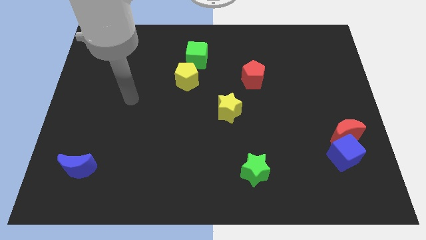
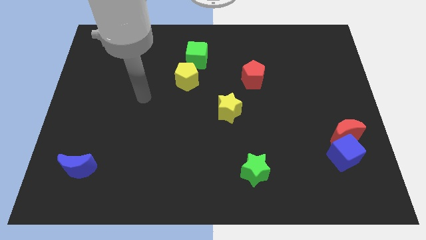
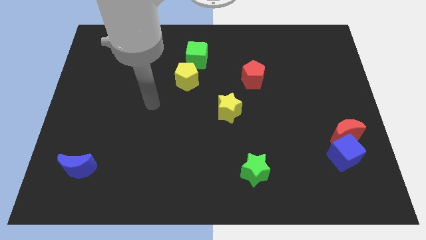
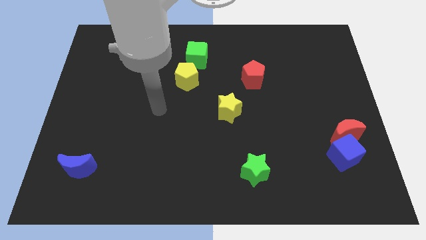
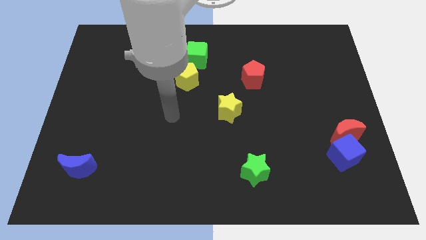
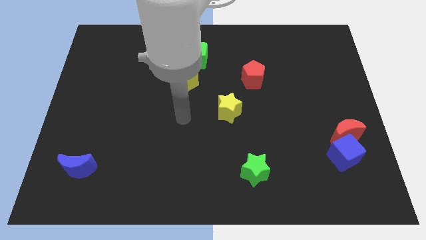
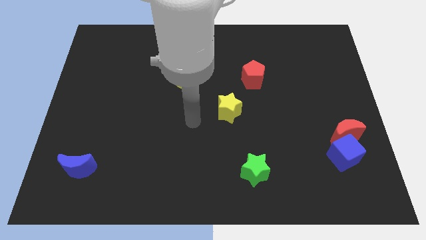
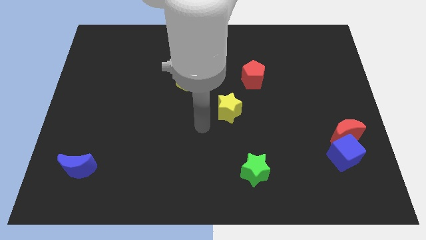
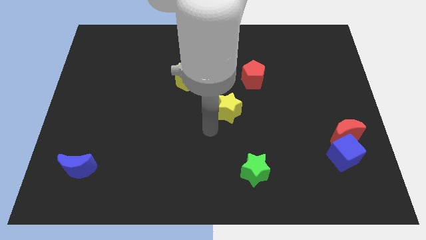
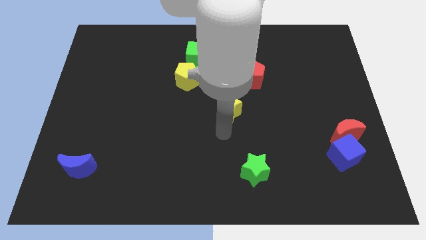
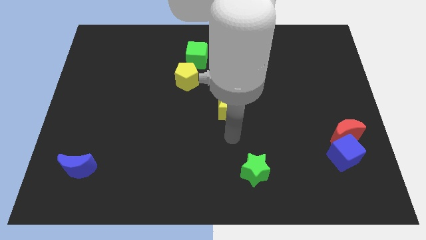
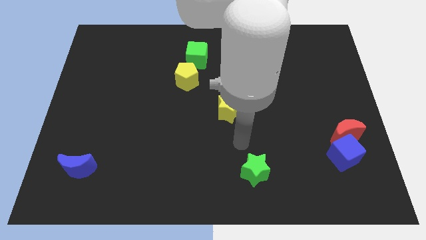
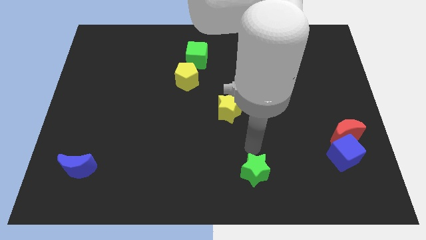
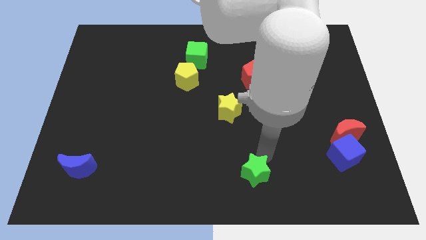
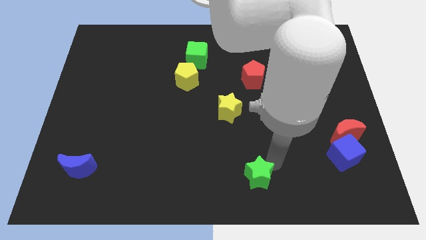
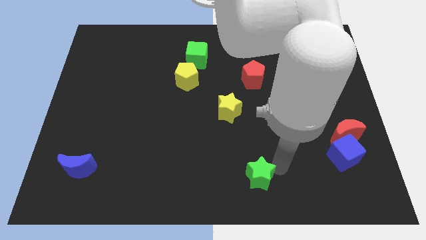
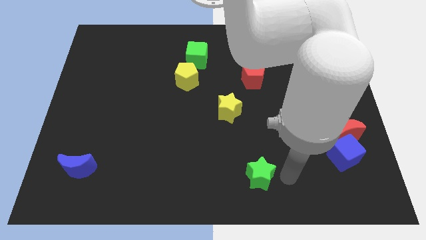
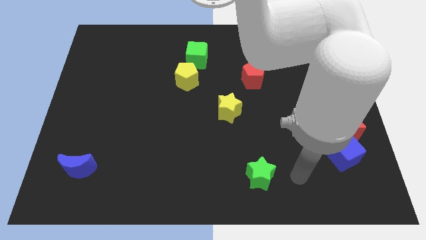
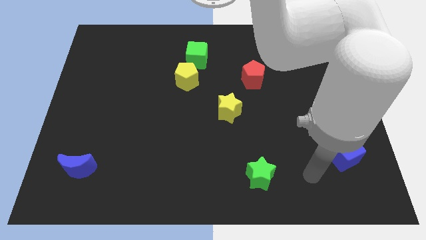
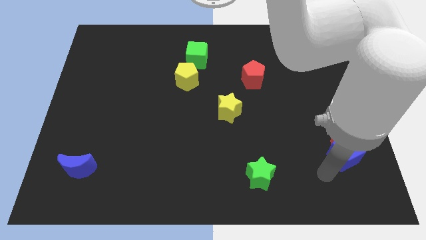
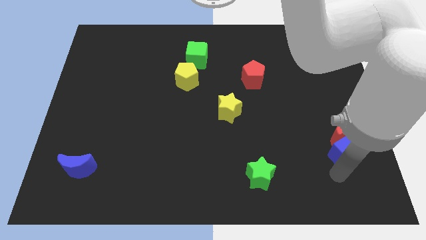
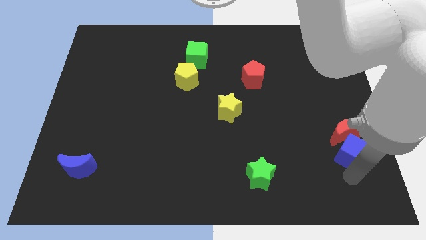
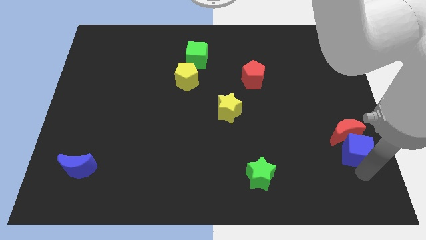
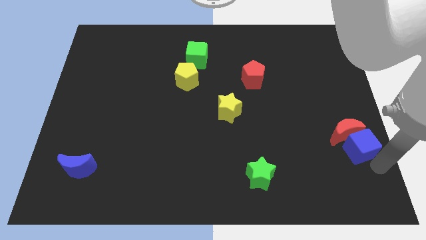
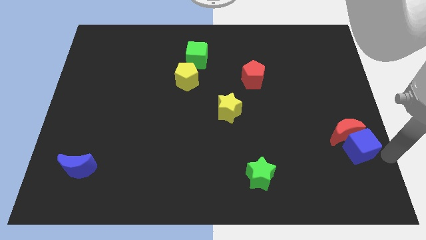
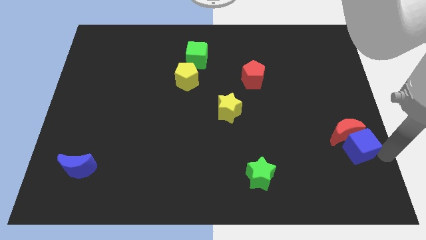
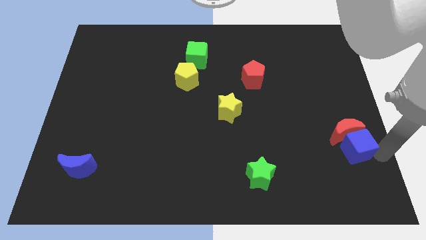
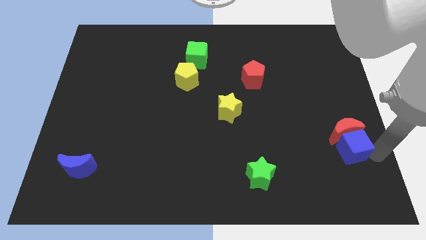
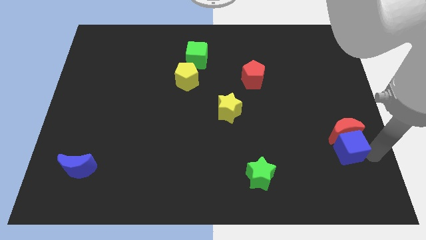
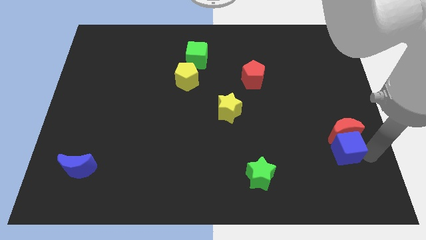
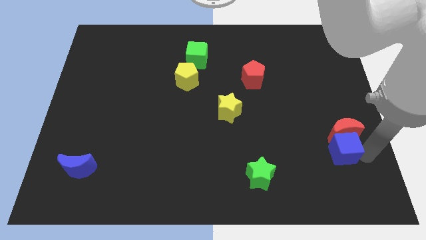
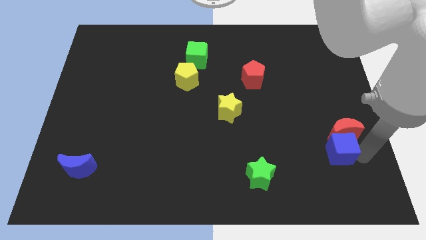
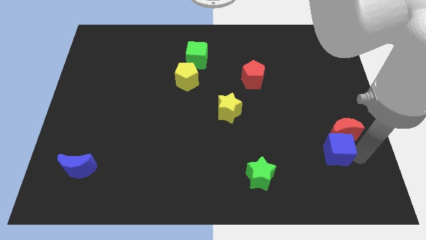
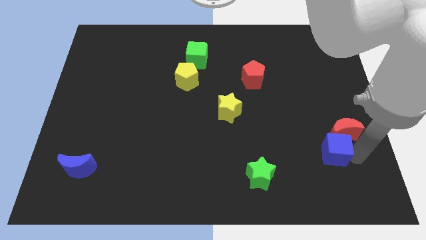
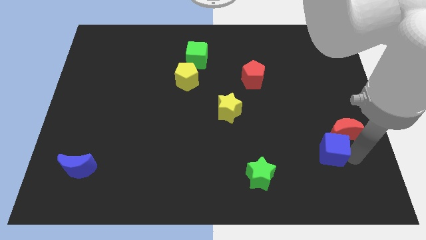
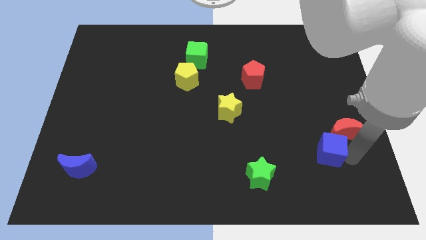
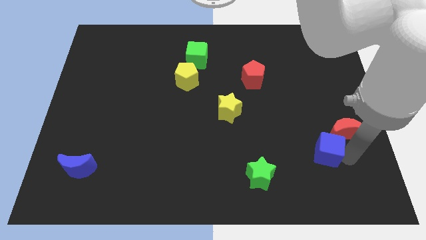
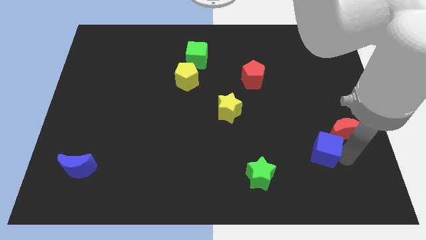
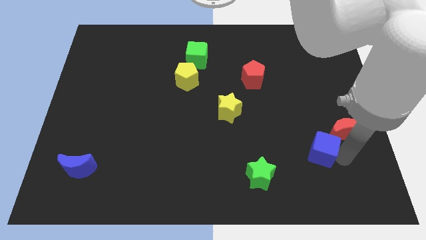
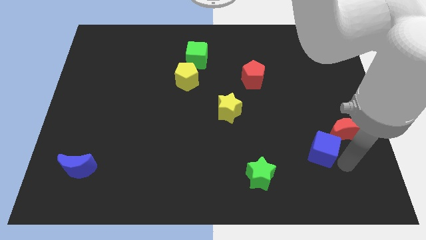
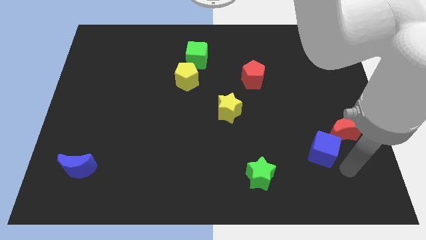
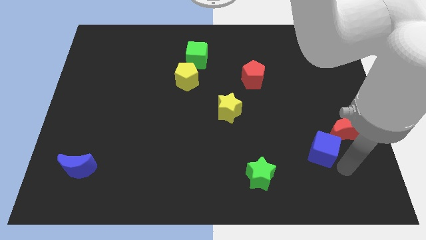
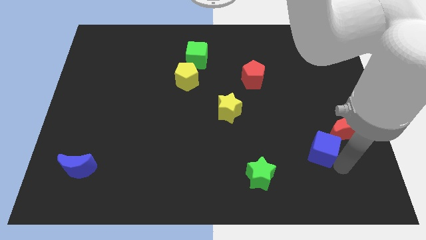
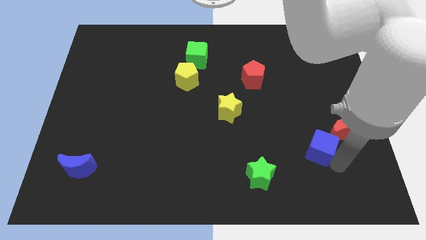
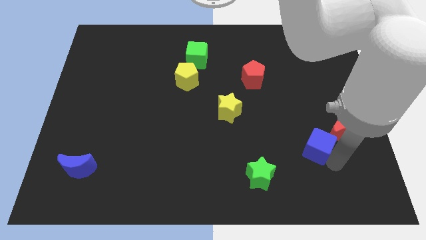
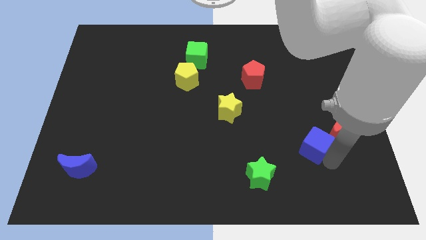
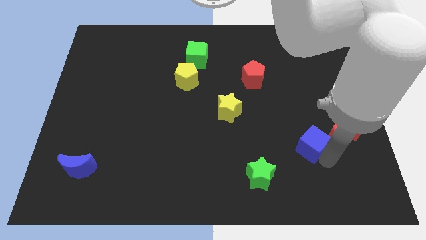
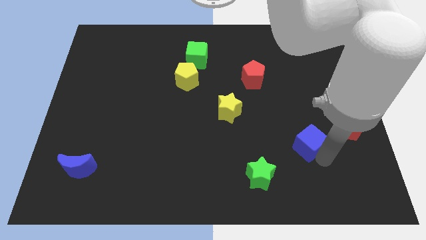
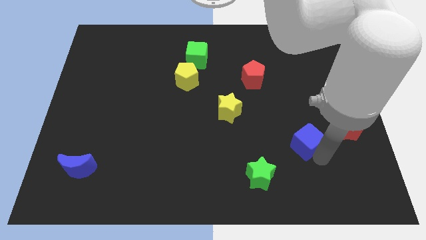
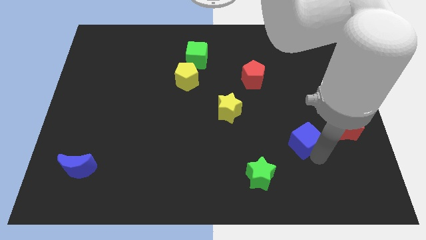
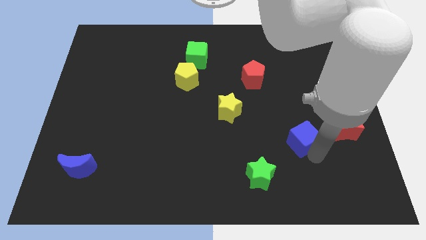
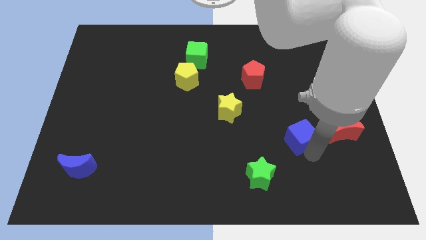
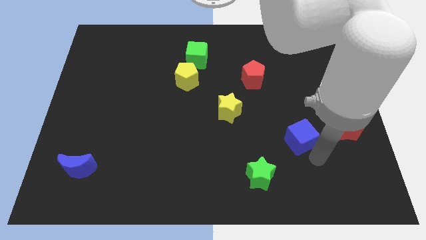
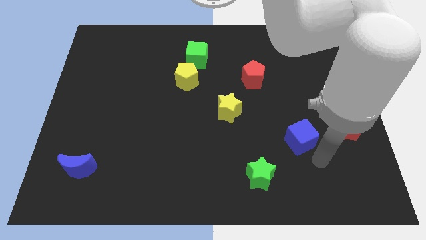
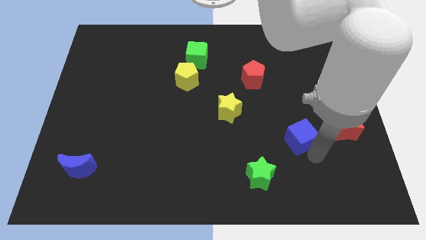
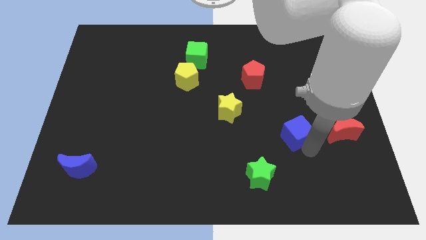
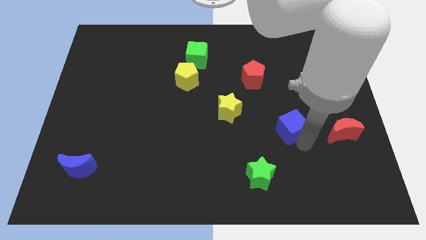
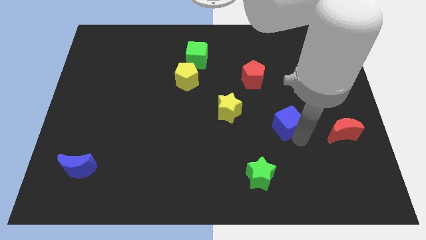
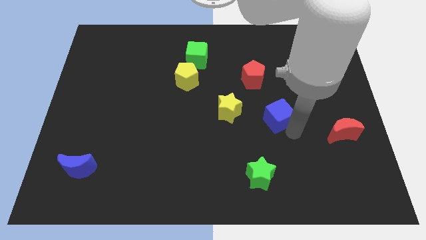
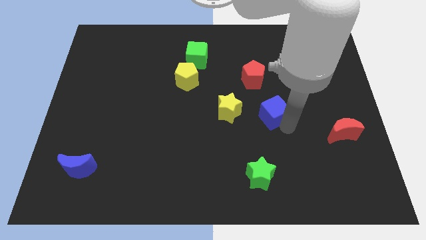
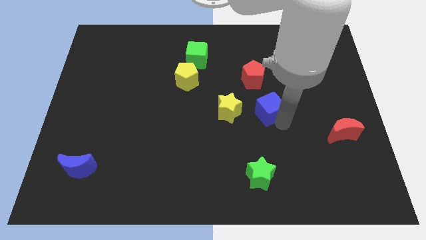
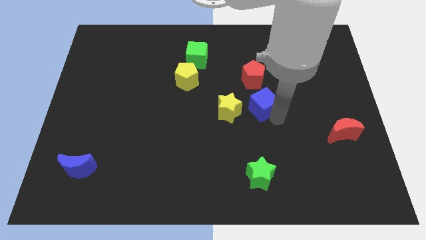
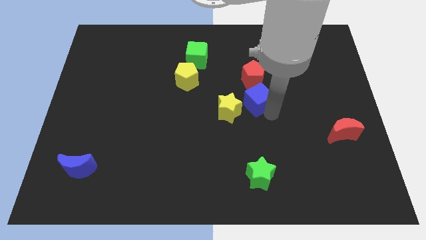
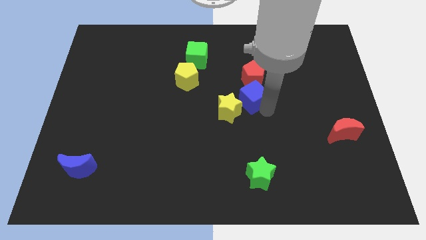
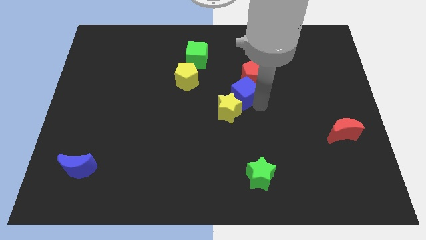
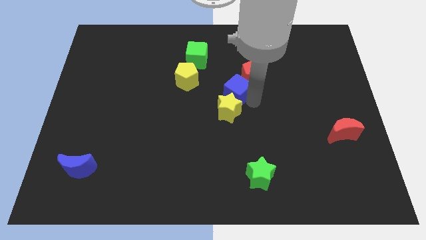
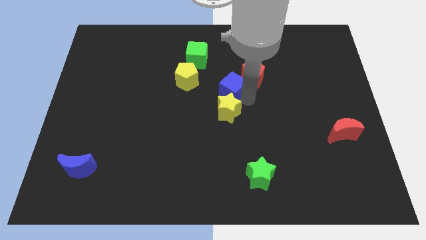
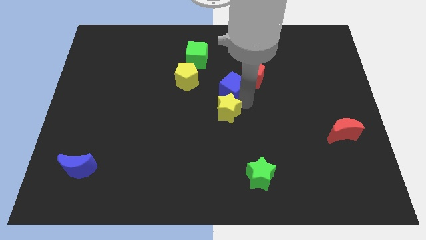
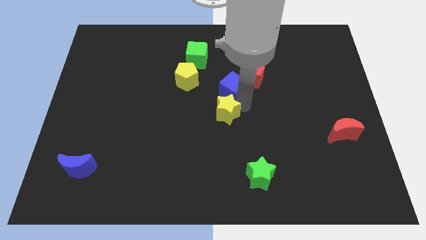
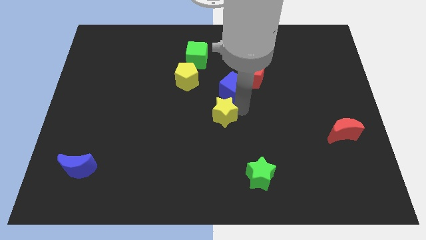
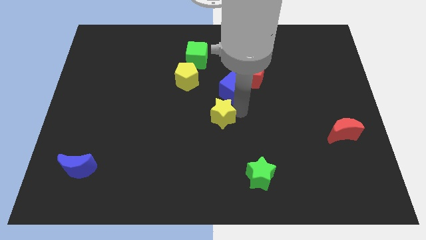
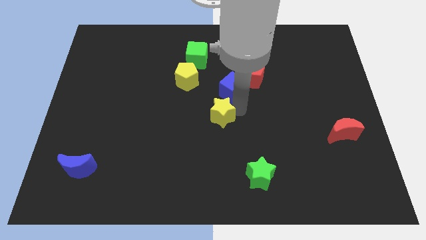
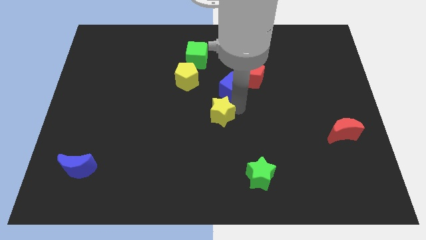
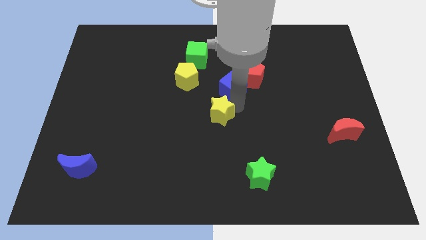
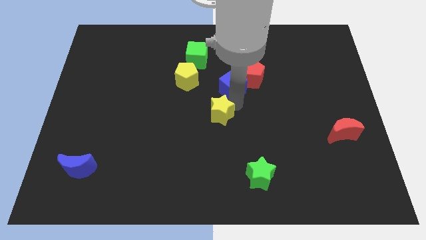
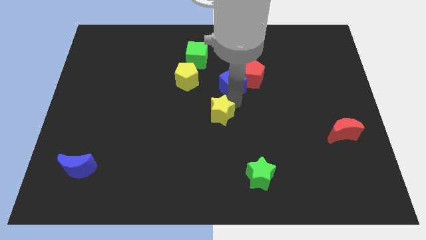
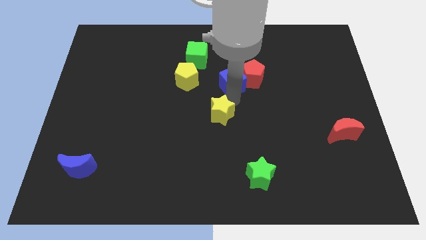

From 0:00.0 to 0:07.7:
put the blue cube to the bottom right of the green cube
